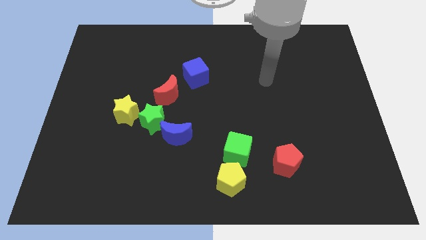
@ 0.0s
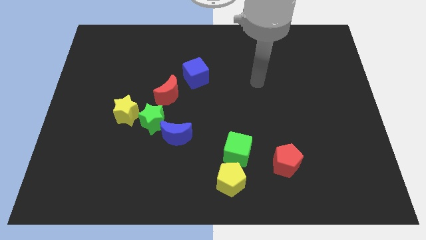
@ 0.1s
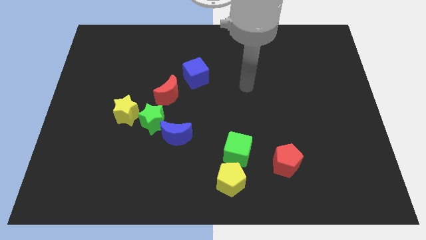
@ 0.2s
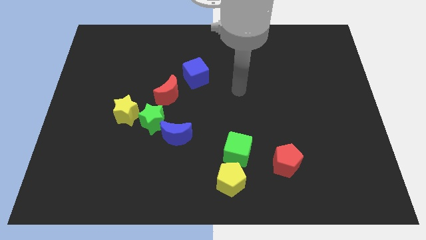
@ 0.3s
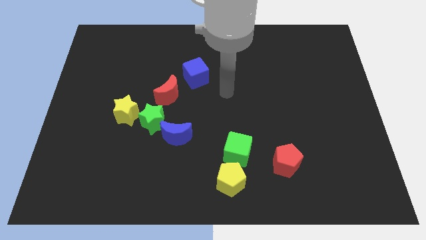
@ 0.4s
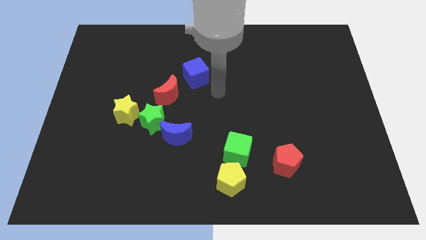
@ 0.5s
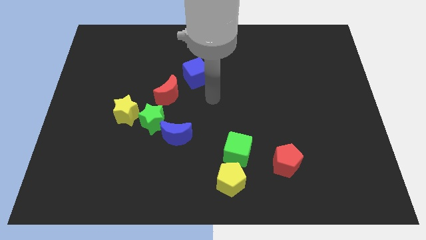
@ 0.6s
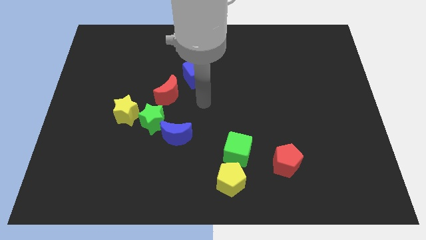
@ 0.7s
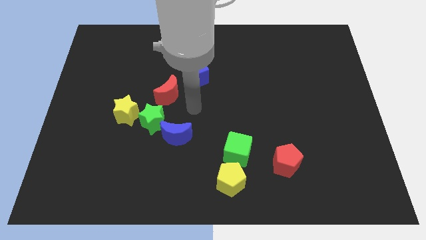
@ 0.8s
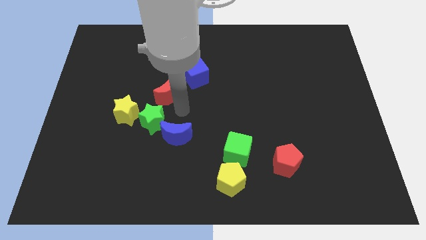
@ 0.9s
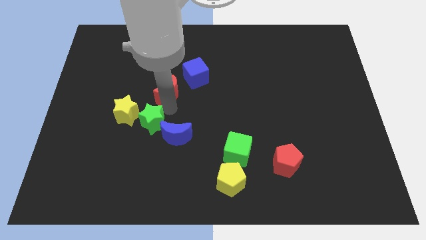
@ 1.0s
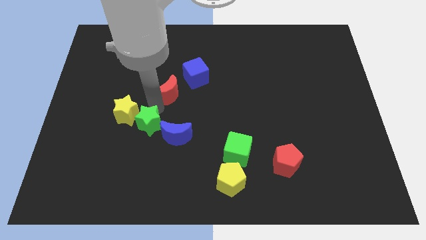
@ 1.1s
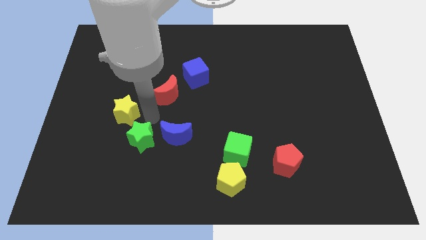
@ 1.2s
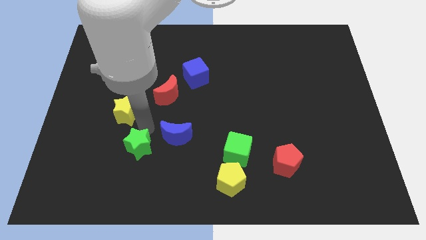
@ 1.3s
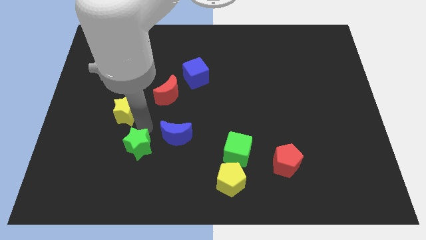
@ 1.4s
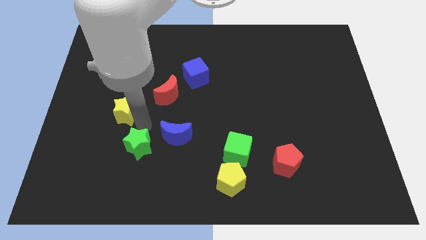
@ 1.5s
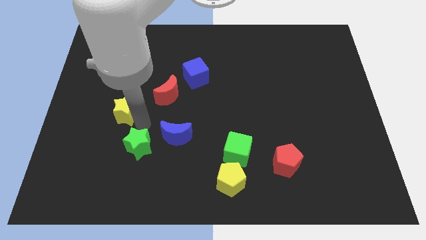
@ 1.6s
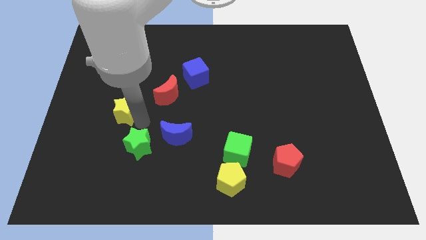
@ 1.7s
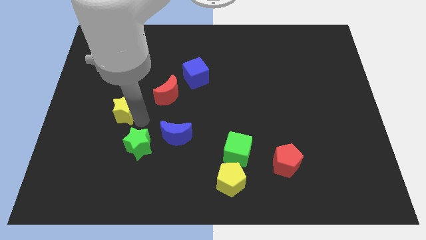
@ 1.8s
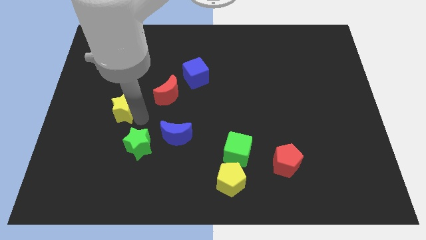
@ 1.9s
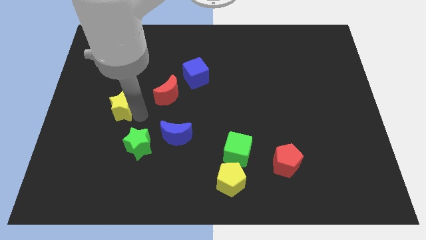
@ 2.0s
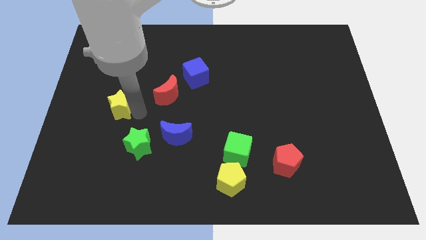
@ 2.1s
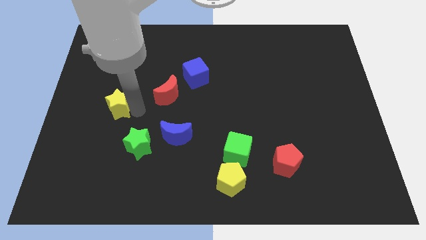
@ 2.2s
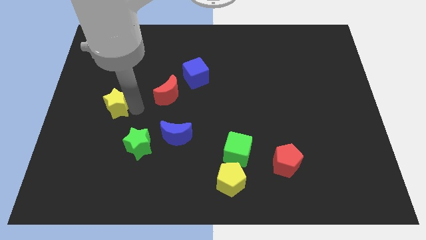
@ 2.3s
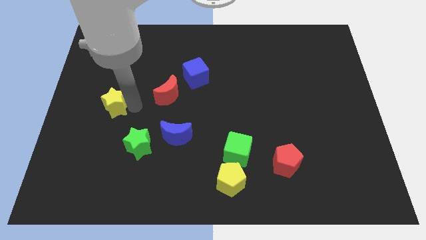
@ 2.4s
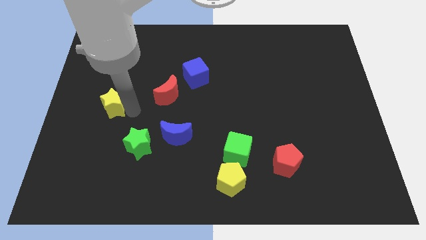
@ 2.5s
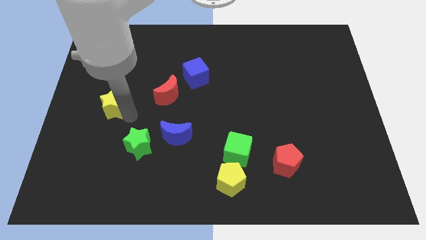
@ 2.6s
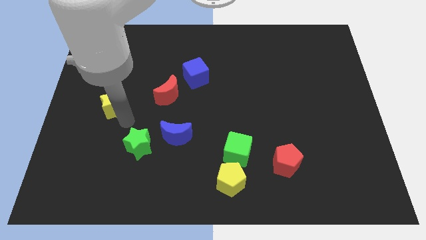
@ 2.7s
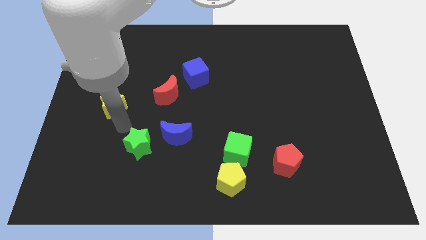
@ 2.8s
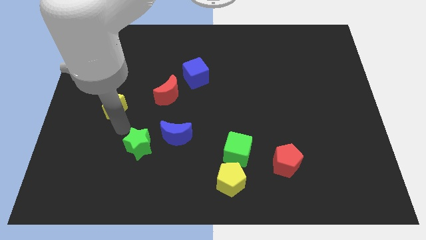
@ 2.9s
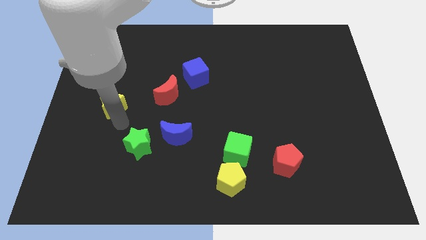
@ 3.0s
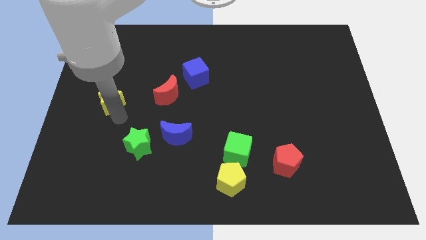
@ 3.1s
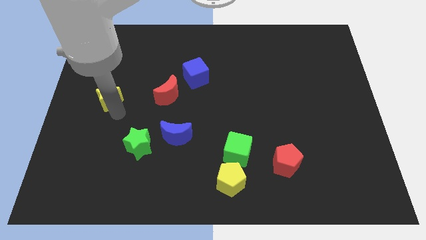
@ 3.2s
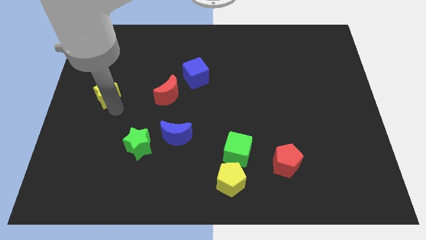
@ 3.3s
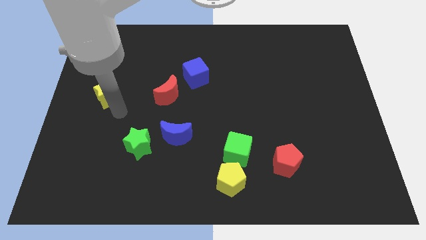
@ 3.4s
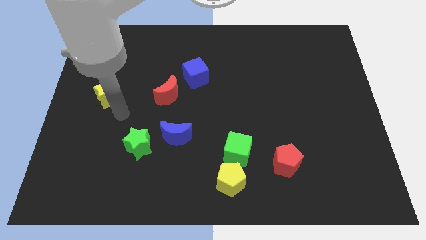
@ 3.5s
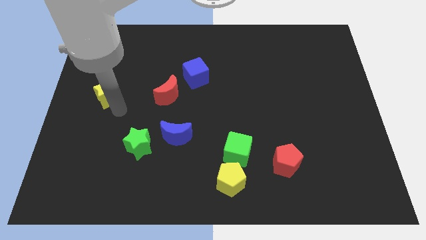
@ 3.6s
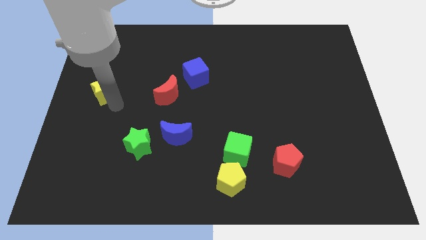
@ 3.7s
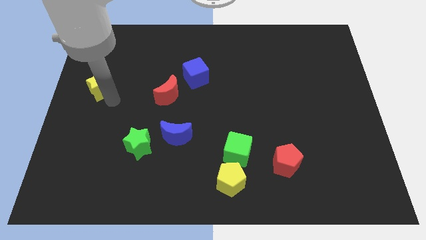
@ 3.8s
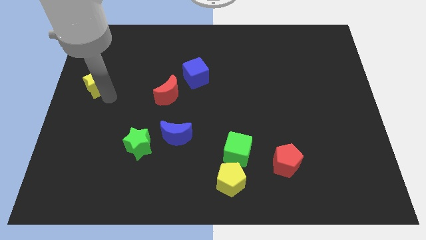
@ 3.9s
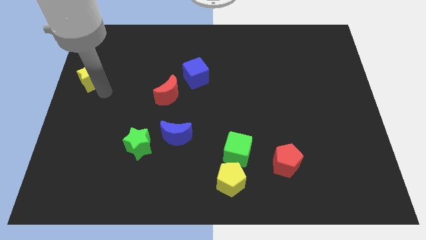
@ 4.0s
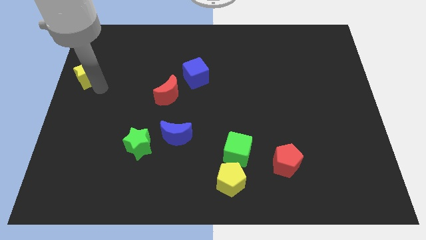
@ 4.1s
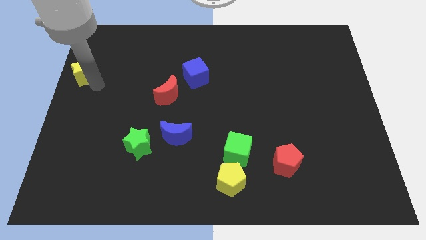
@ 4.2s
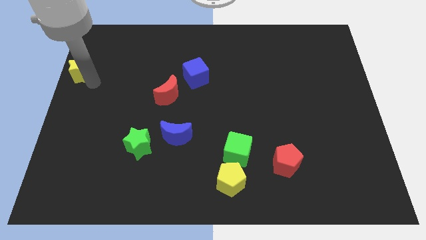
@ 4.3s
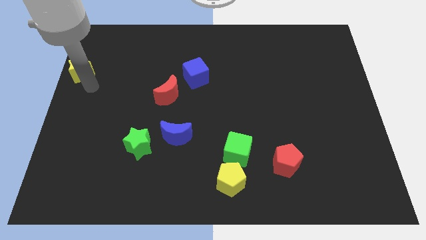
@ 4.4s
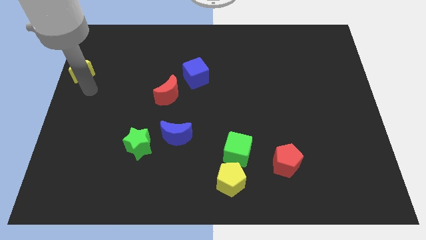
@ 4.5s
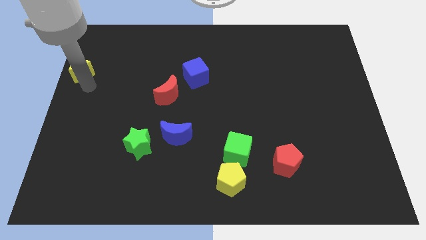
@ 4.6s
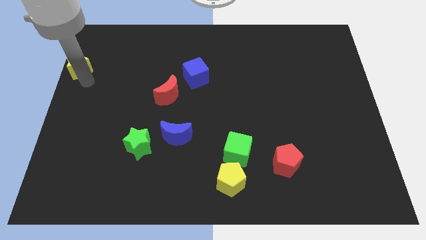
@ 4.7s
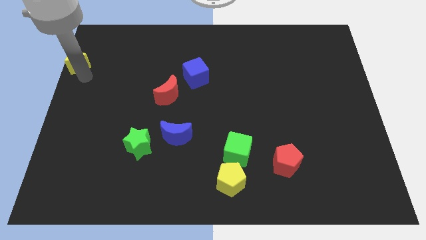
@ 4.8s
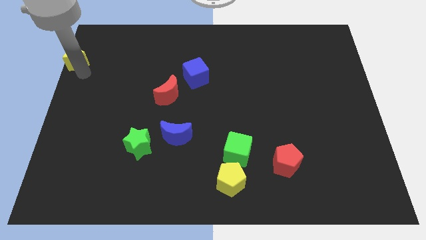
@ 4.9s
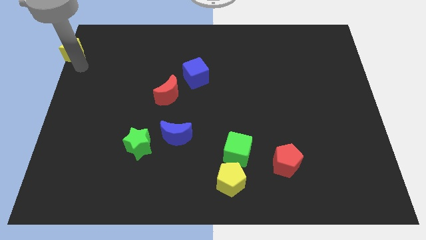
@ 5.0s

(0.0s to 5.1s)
put the yellow star to the top left of the board

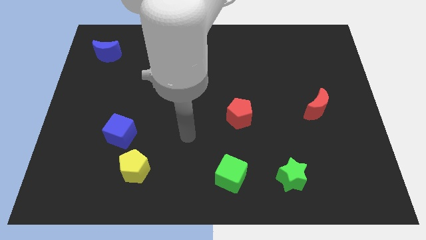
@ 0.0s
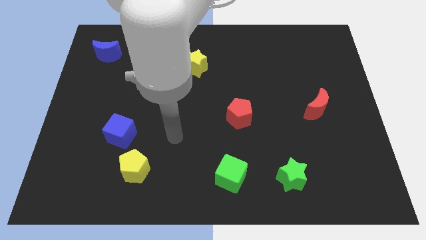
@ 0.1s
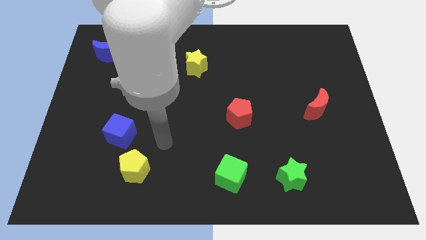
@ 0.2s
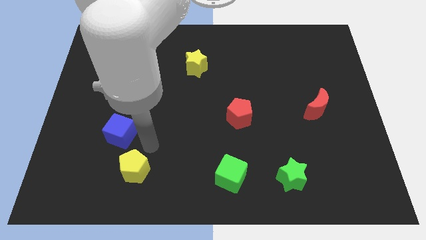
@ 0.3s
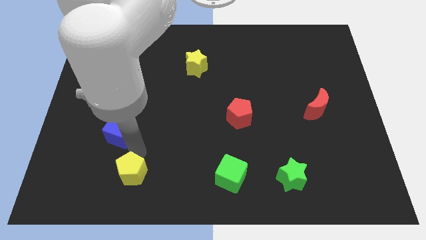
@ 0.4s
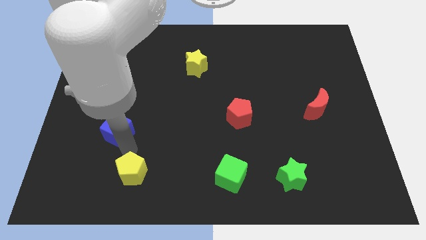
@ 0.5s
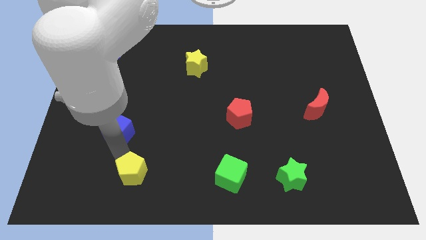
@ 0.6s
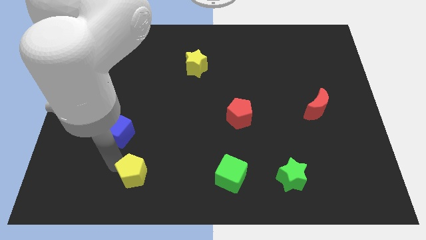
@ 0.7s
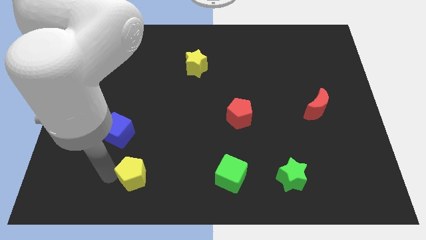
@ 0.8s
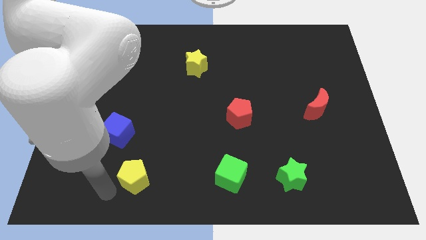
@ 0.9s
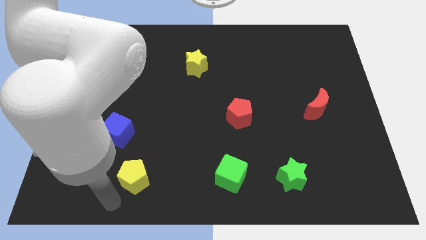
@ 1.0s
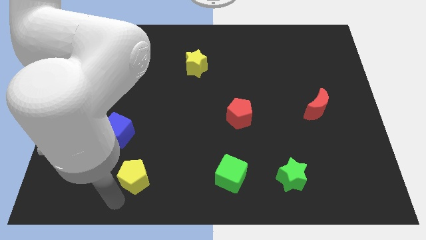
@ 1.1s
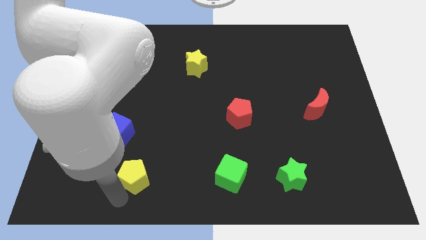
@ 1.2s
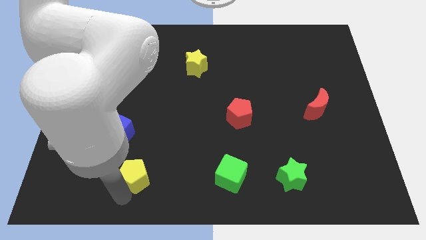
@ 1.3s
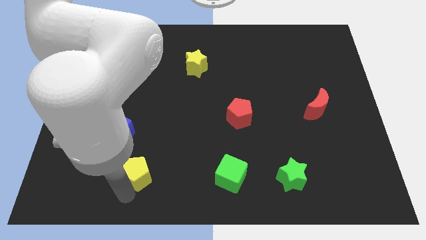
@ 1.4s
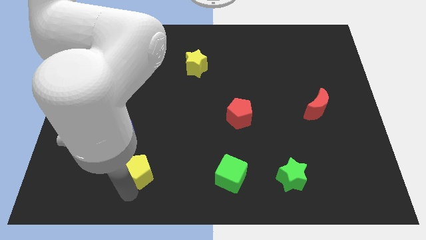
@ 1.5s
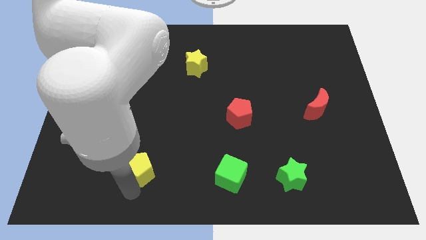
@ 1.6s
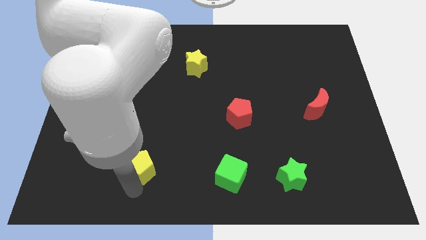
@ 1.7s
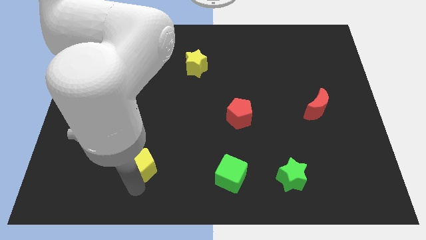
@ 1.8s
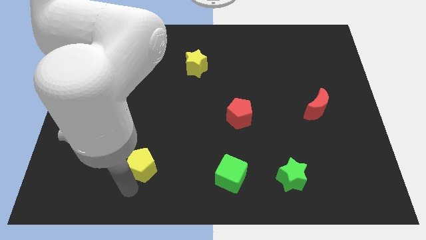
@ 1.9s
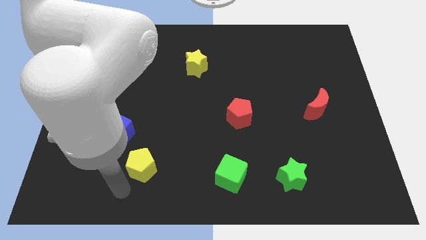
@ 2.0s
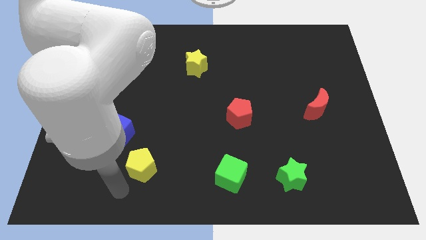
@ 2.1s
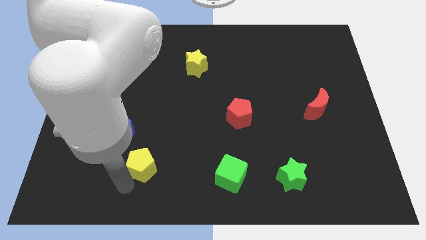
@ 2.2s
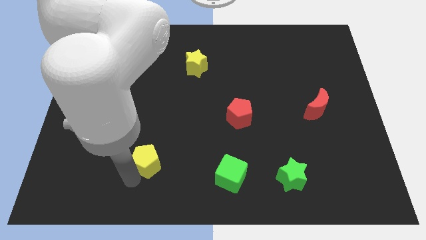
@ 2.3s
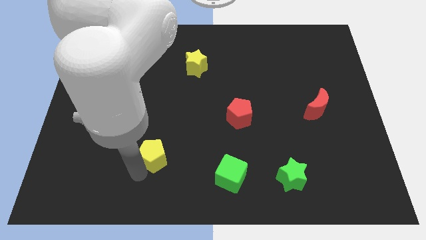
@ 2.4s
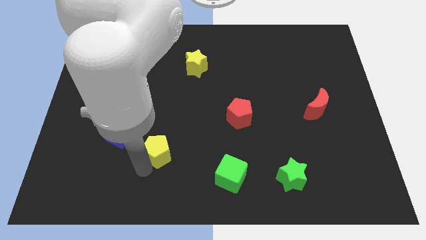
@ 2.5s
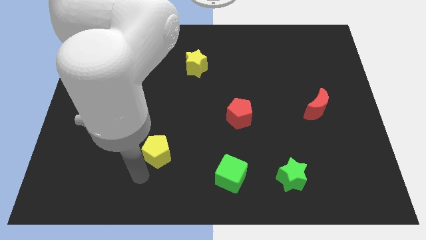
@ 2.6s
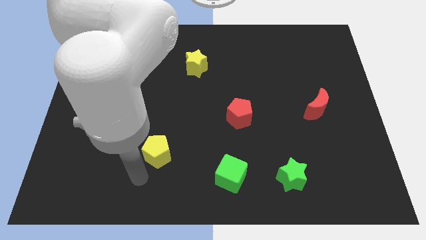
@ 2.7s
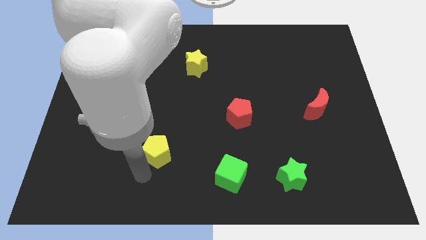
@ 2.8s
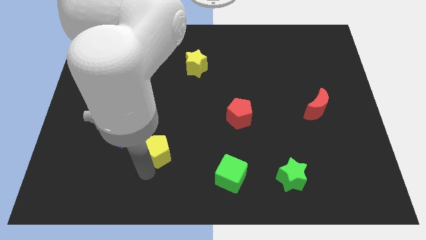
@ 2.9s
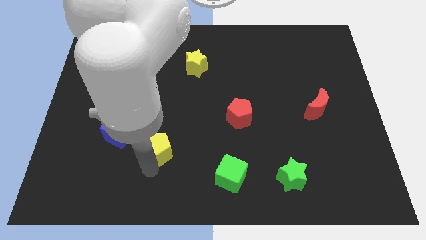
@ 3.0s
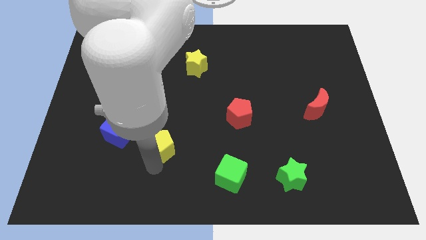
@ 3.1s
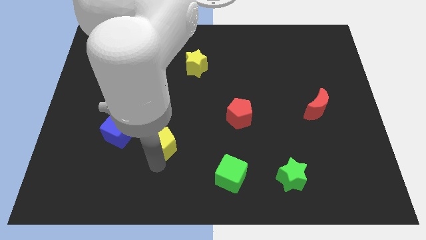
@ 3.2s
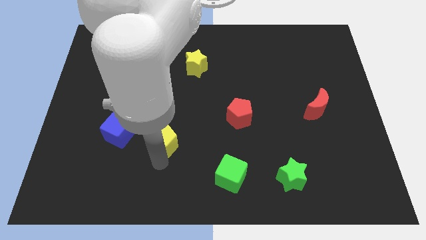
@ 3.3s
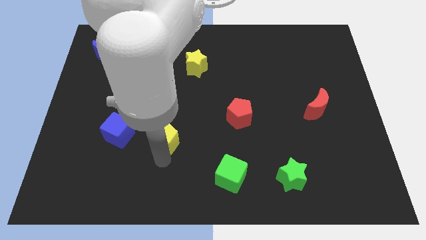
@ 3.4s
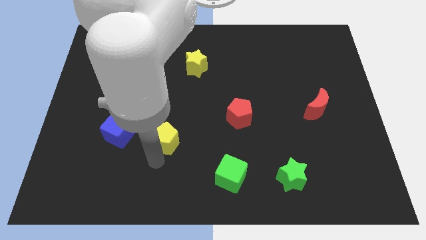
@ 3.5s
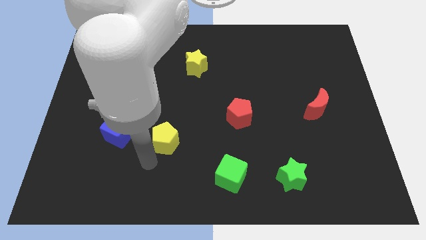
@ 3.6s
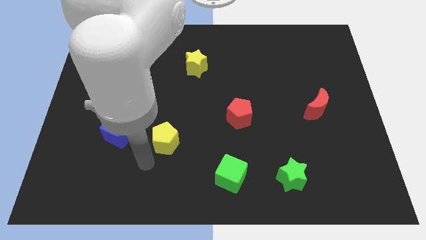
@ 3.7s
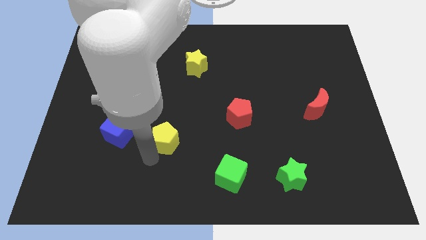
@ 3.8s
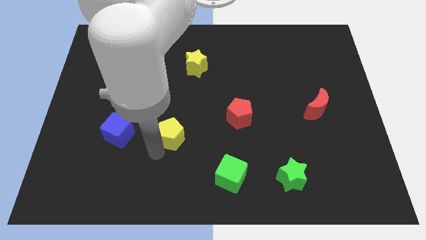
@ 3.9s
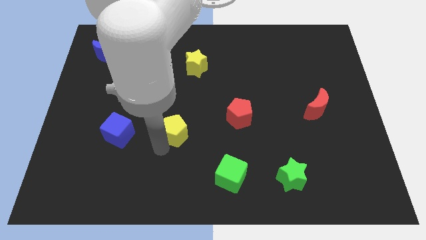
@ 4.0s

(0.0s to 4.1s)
slide the yellow pentagon to the middle of the board
